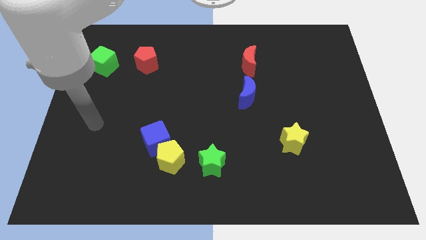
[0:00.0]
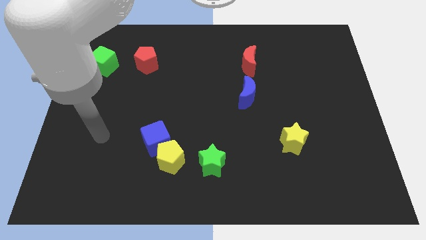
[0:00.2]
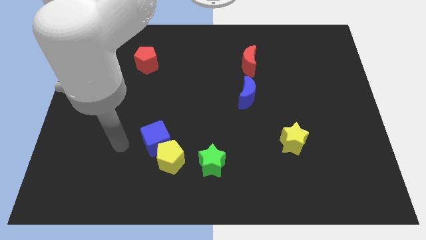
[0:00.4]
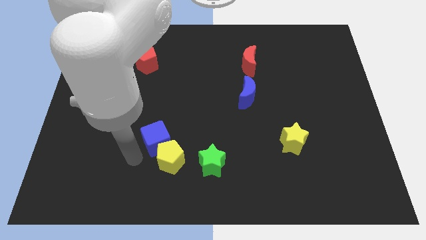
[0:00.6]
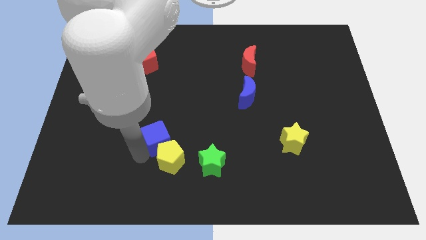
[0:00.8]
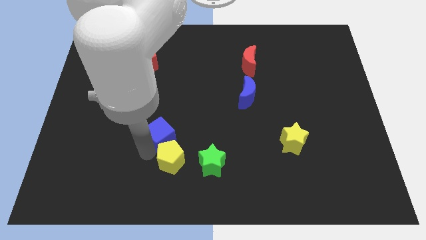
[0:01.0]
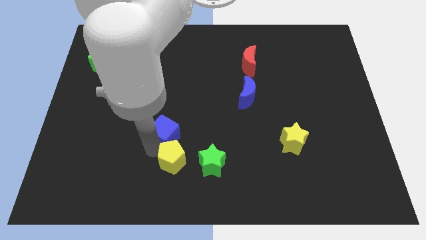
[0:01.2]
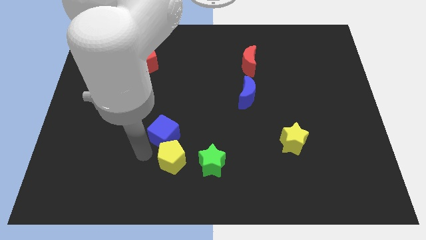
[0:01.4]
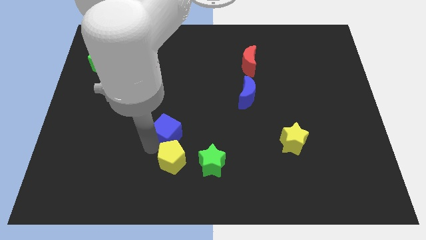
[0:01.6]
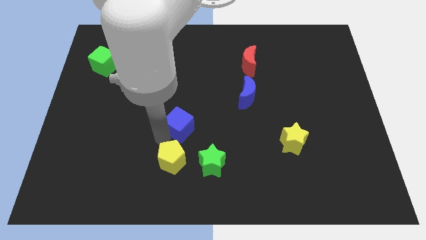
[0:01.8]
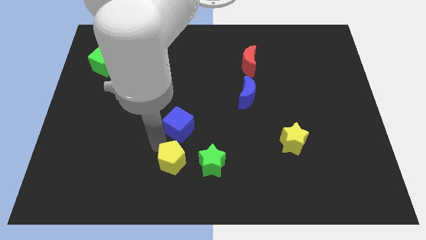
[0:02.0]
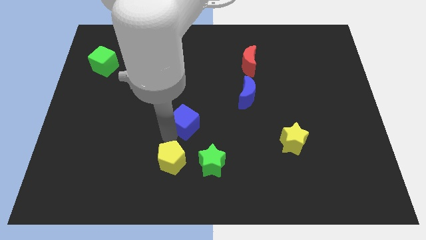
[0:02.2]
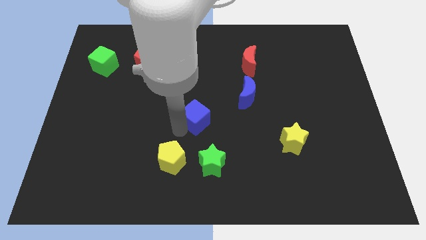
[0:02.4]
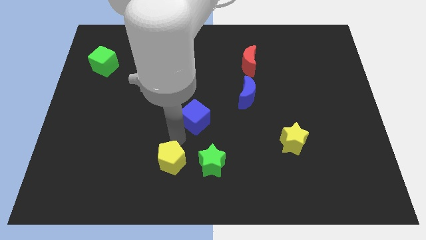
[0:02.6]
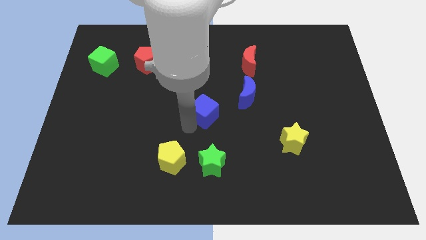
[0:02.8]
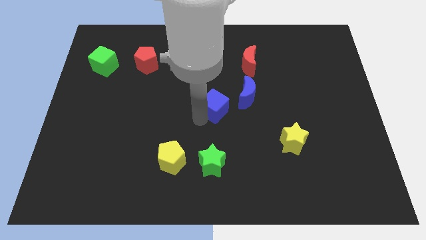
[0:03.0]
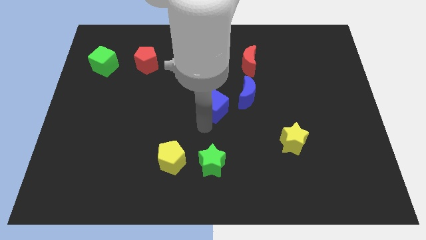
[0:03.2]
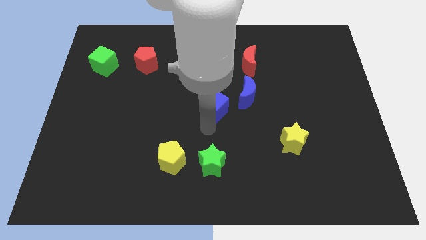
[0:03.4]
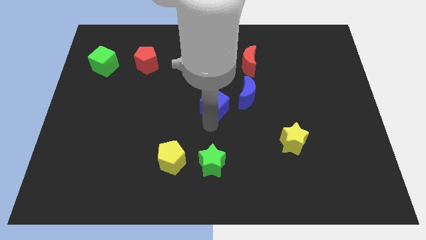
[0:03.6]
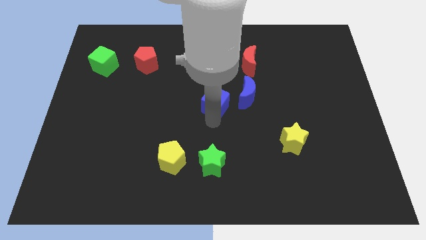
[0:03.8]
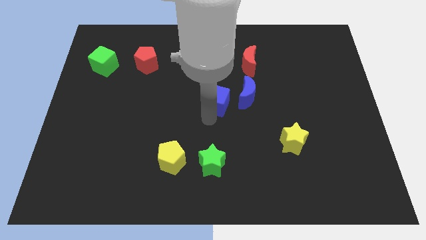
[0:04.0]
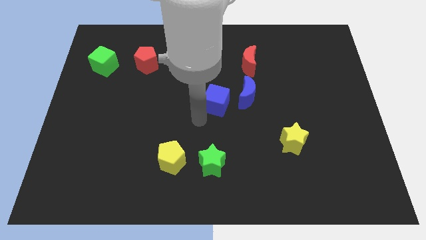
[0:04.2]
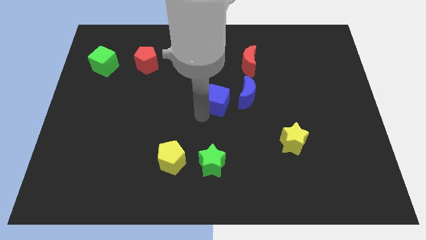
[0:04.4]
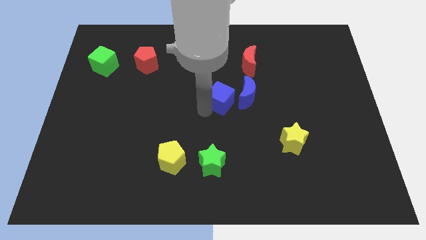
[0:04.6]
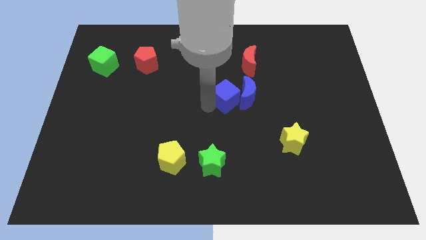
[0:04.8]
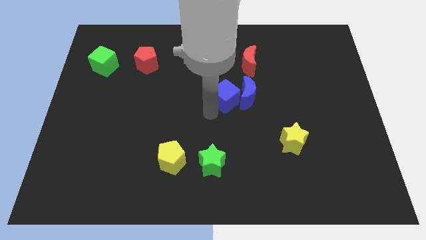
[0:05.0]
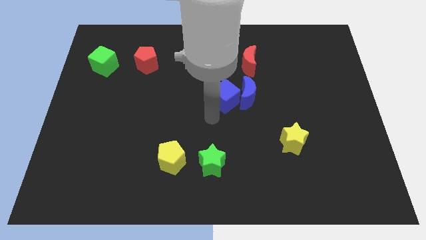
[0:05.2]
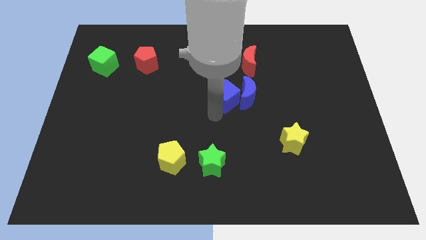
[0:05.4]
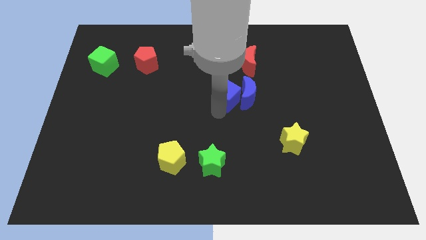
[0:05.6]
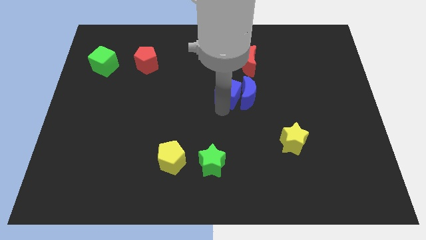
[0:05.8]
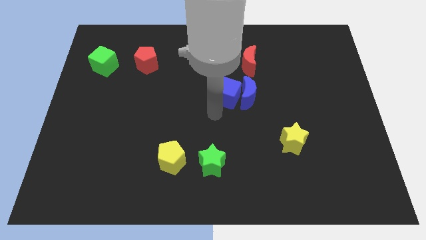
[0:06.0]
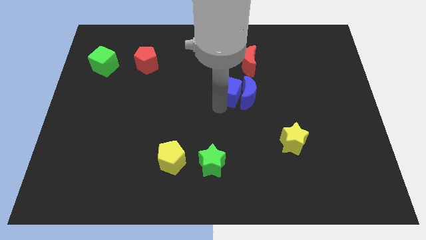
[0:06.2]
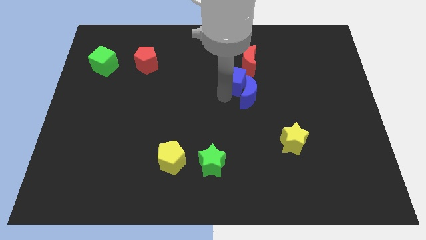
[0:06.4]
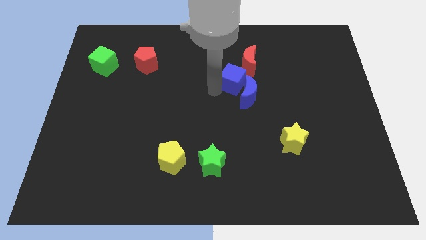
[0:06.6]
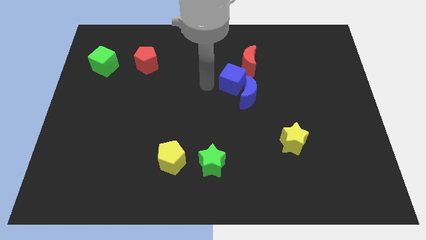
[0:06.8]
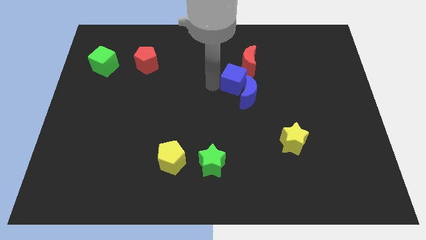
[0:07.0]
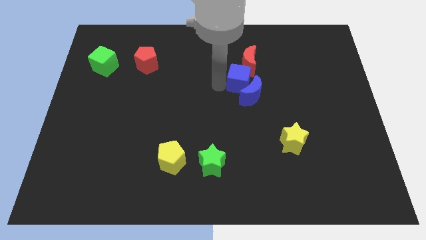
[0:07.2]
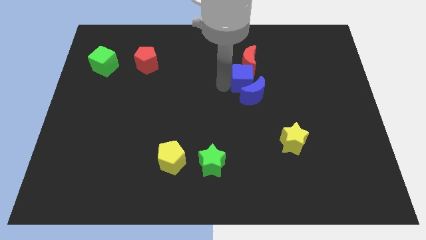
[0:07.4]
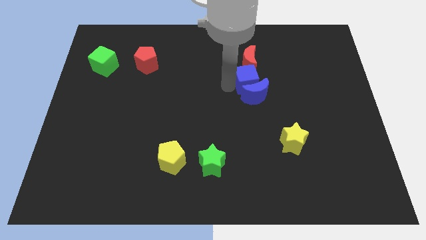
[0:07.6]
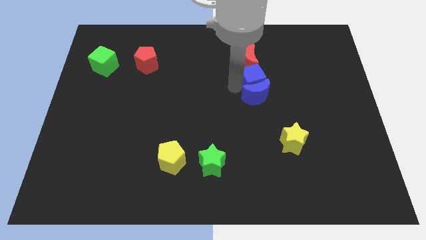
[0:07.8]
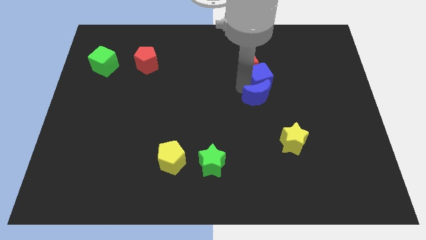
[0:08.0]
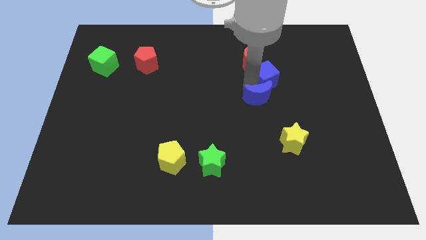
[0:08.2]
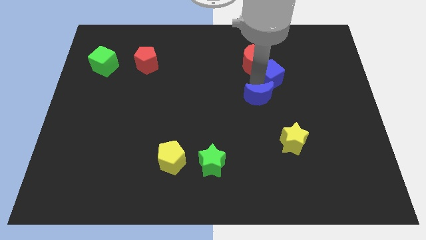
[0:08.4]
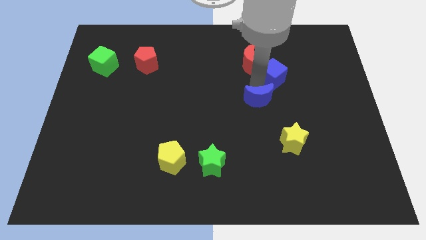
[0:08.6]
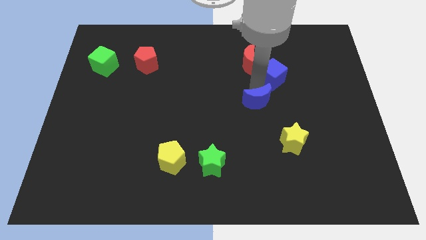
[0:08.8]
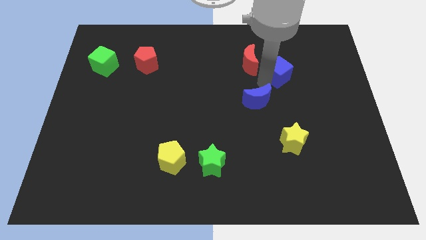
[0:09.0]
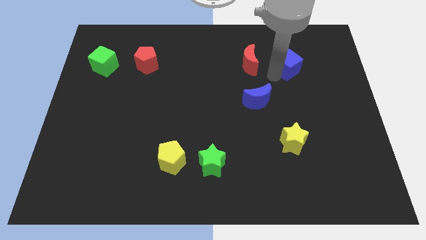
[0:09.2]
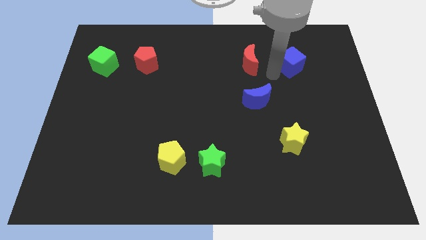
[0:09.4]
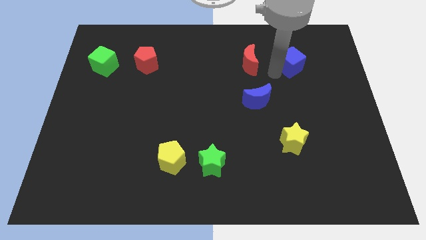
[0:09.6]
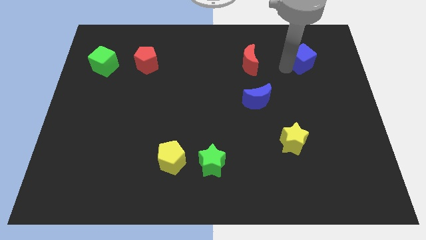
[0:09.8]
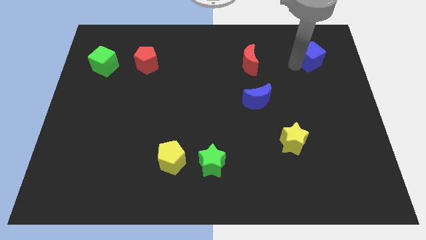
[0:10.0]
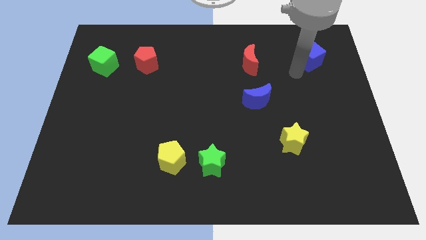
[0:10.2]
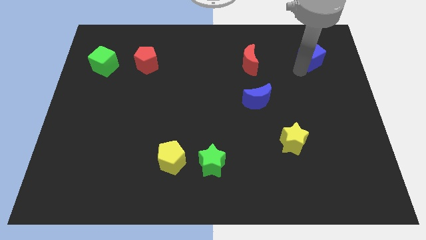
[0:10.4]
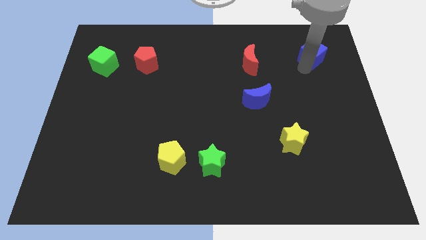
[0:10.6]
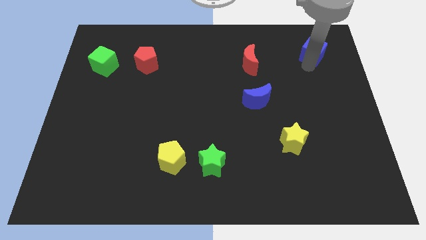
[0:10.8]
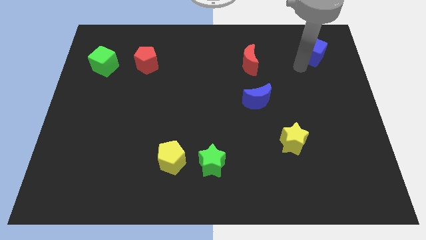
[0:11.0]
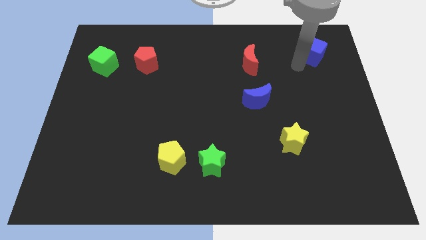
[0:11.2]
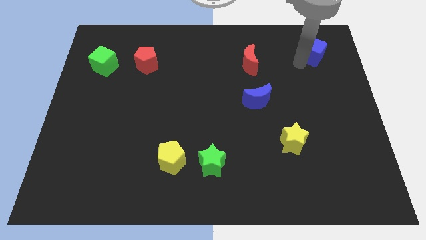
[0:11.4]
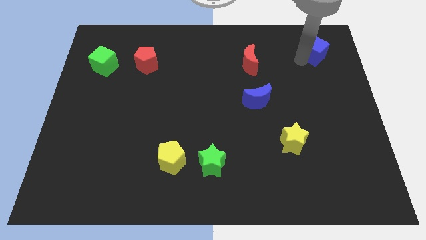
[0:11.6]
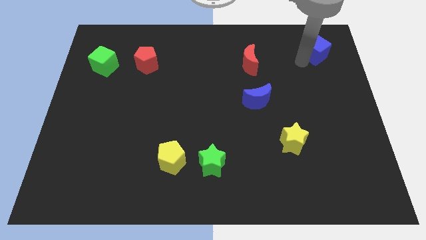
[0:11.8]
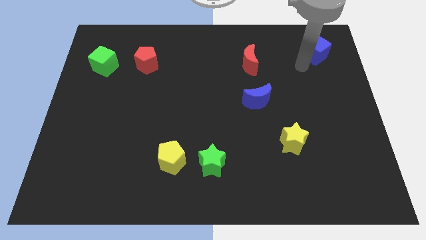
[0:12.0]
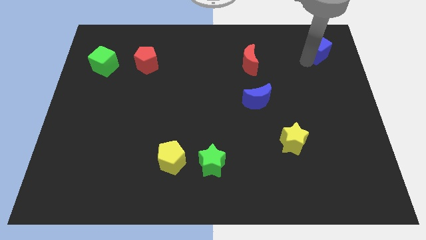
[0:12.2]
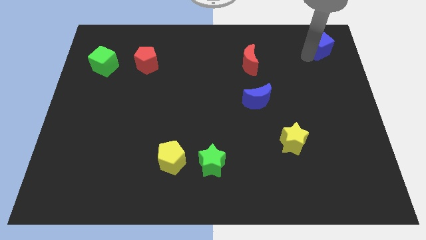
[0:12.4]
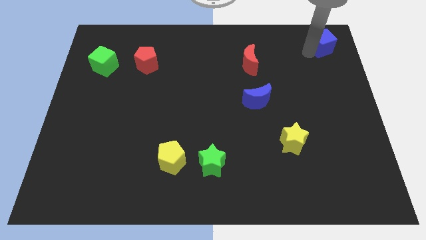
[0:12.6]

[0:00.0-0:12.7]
move the blue cube to the top right corner

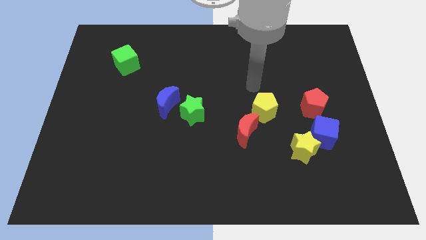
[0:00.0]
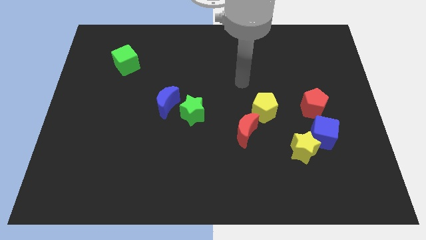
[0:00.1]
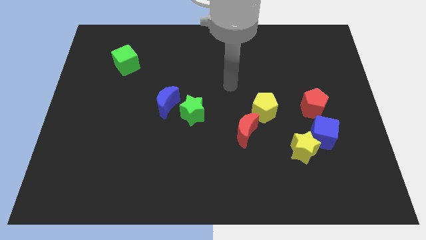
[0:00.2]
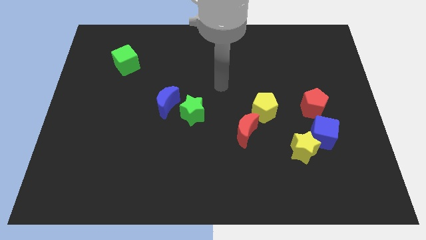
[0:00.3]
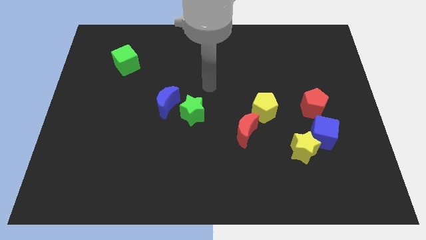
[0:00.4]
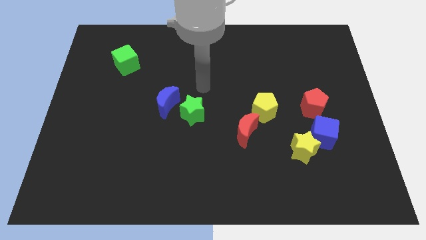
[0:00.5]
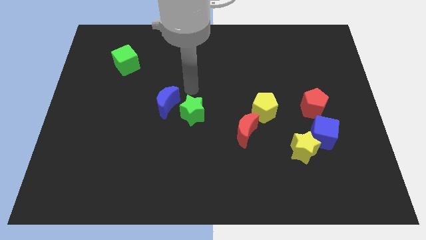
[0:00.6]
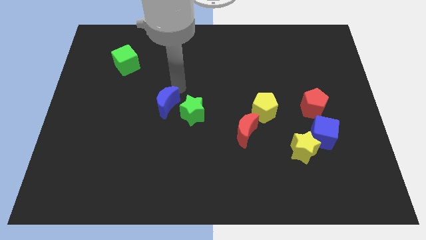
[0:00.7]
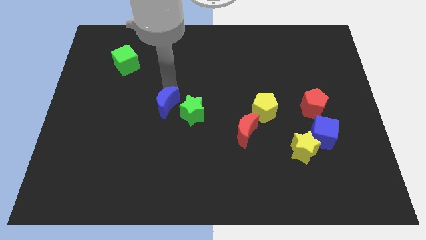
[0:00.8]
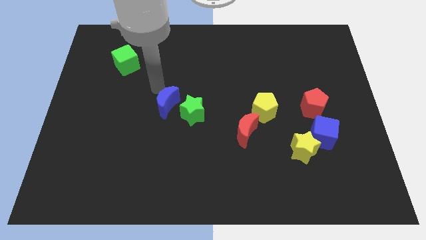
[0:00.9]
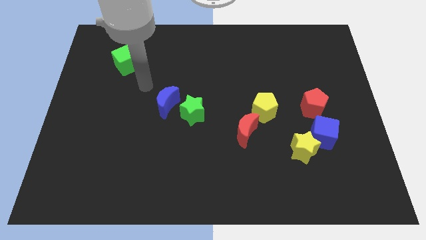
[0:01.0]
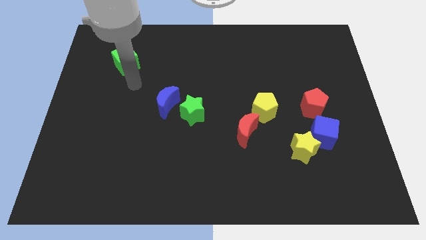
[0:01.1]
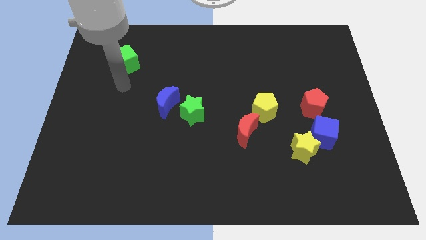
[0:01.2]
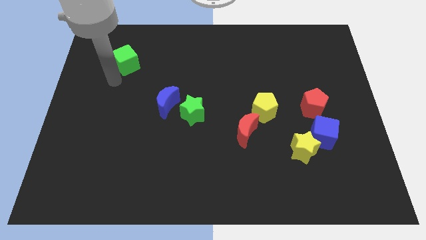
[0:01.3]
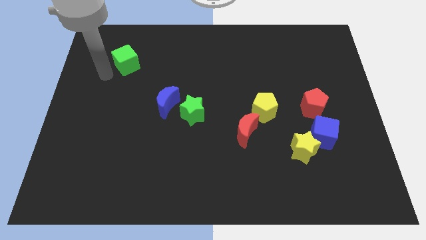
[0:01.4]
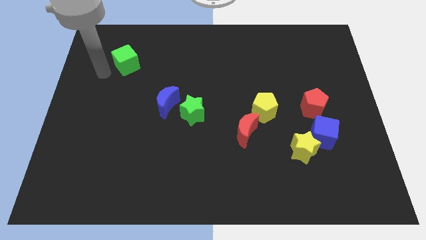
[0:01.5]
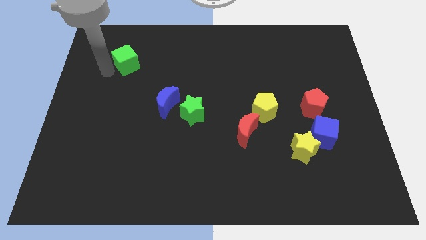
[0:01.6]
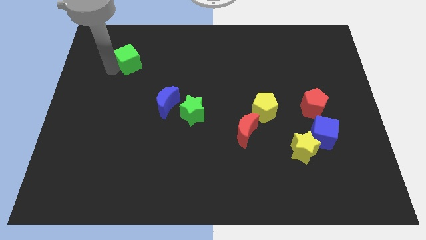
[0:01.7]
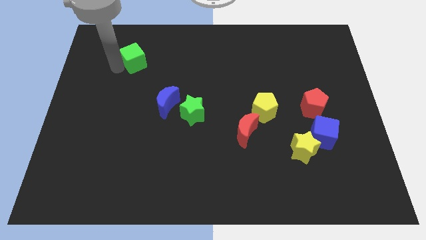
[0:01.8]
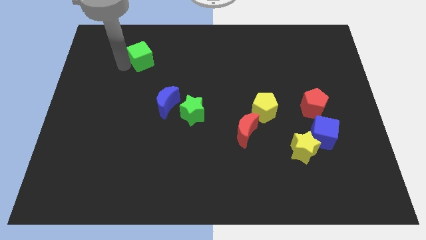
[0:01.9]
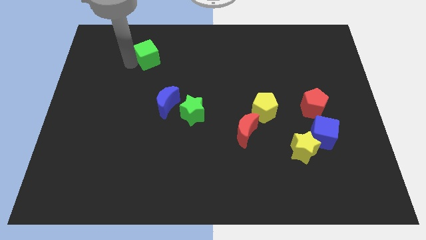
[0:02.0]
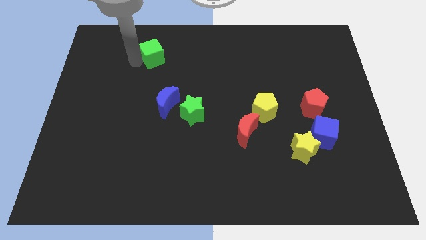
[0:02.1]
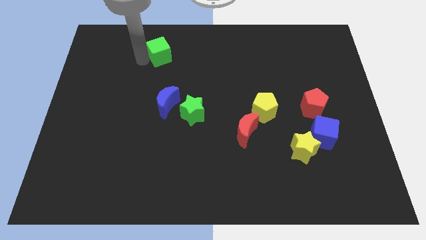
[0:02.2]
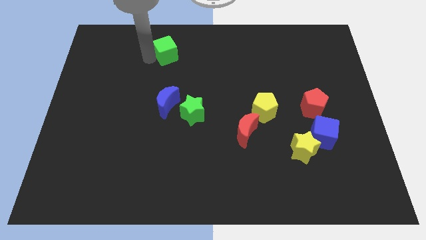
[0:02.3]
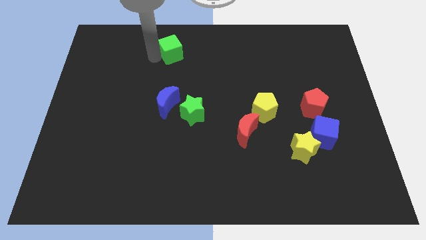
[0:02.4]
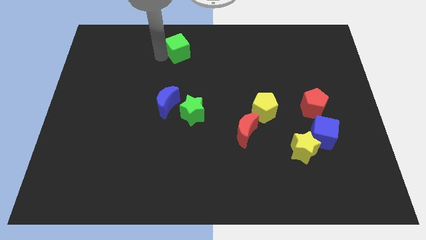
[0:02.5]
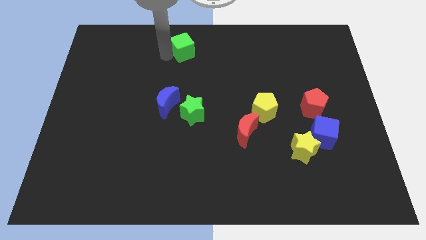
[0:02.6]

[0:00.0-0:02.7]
move the green cube to the towards your base
